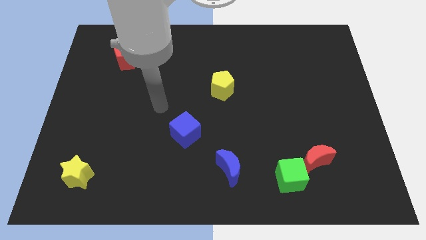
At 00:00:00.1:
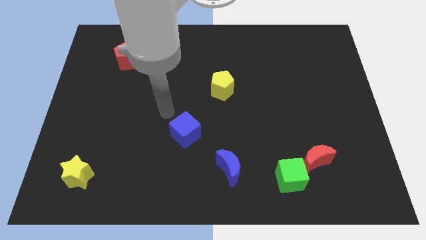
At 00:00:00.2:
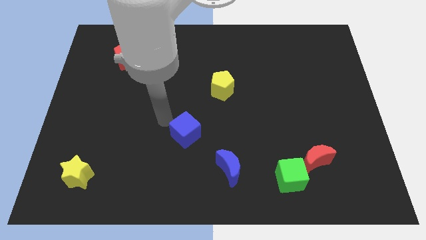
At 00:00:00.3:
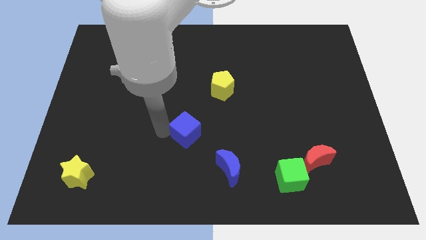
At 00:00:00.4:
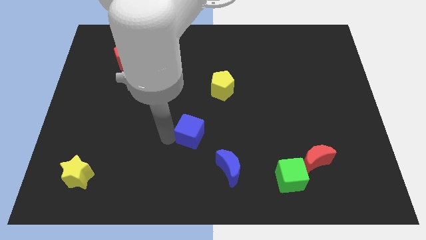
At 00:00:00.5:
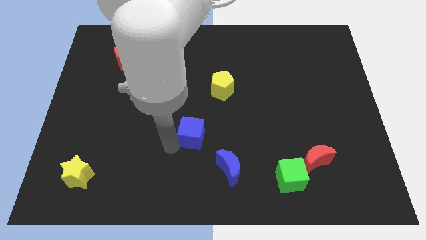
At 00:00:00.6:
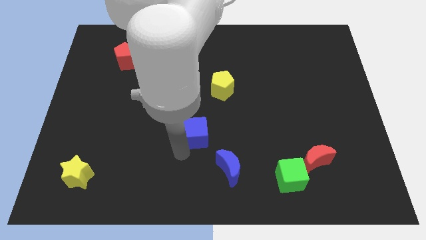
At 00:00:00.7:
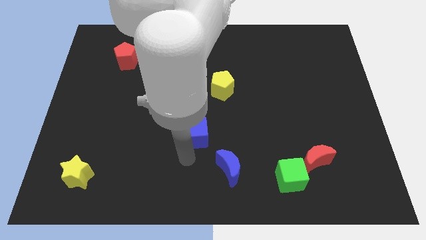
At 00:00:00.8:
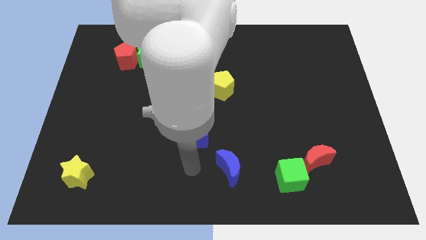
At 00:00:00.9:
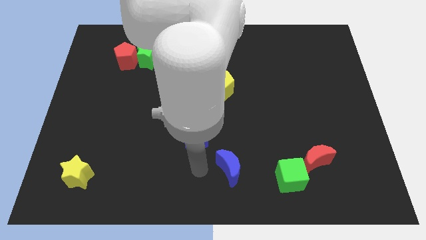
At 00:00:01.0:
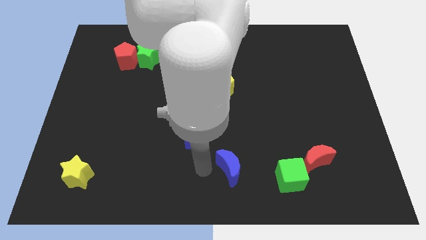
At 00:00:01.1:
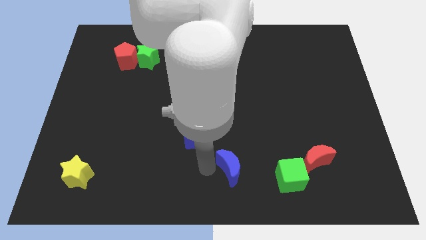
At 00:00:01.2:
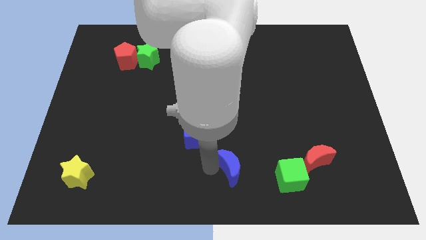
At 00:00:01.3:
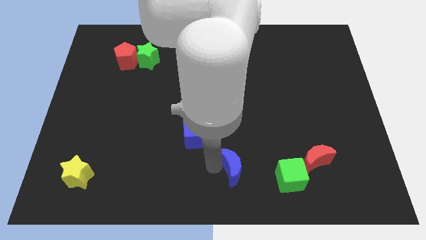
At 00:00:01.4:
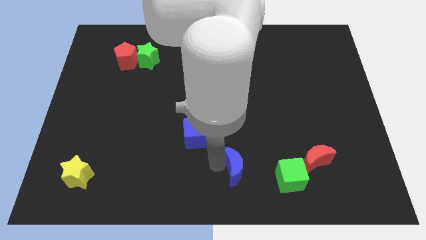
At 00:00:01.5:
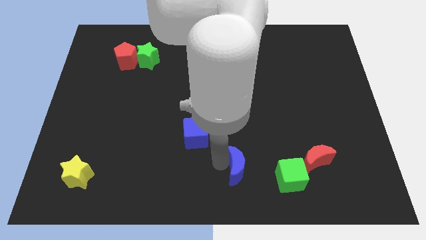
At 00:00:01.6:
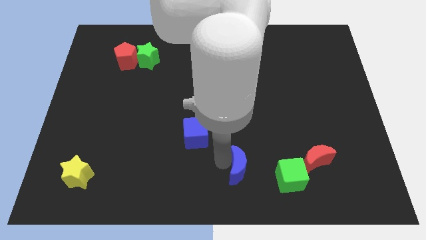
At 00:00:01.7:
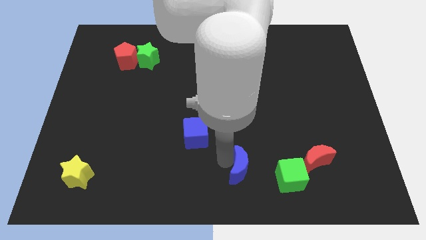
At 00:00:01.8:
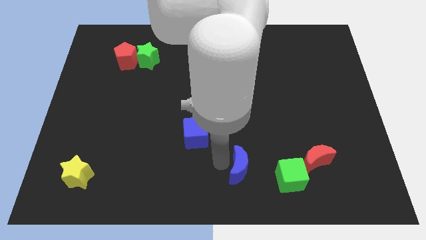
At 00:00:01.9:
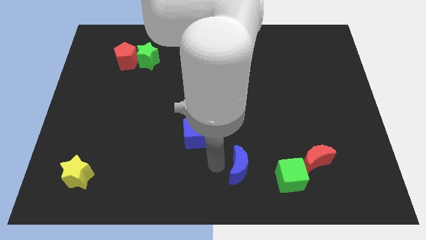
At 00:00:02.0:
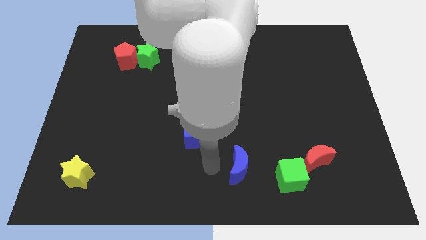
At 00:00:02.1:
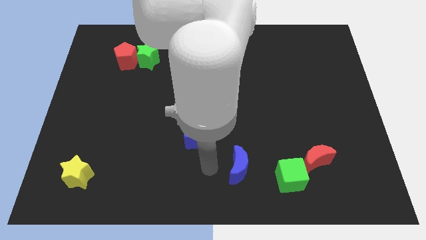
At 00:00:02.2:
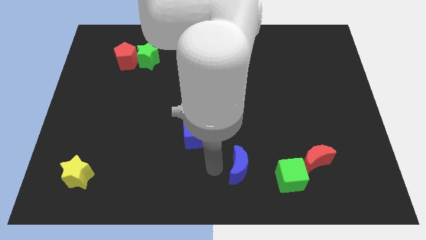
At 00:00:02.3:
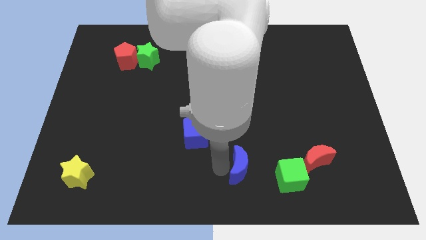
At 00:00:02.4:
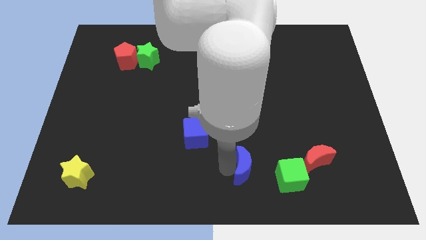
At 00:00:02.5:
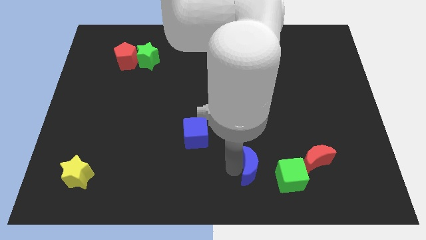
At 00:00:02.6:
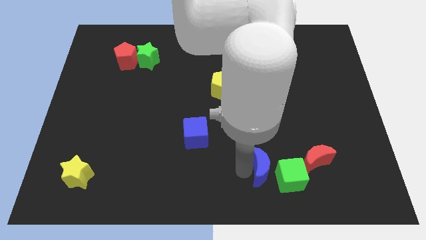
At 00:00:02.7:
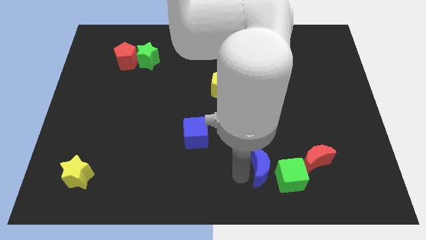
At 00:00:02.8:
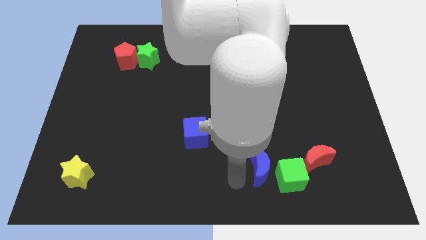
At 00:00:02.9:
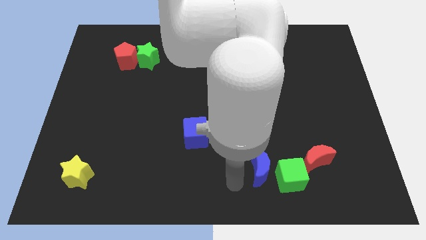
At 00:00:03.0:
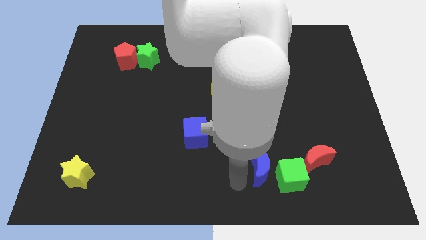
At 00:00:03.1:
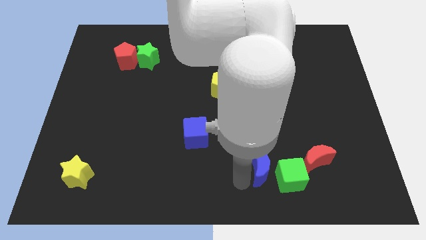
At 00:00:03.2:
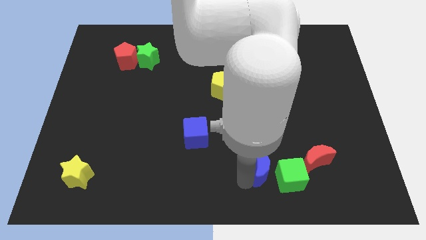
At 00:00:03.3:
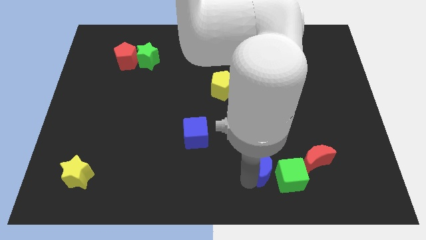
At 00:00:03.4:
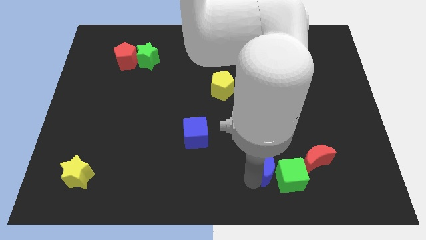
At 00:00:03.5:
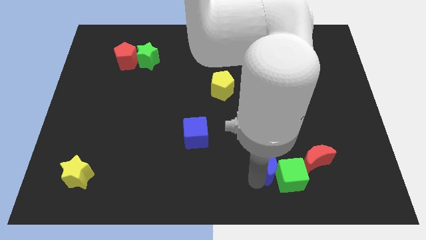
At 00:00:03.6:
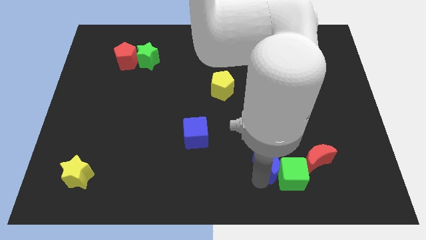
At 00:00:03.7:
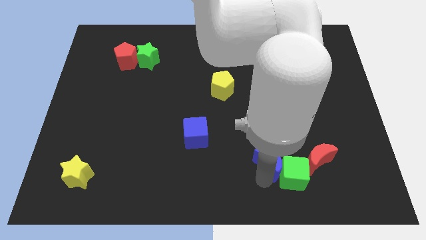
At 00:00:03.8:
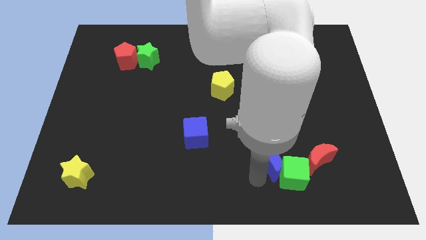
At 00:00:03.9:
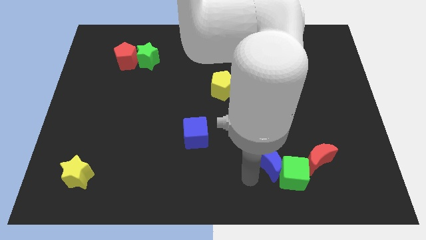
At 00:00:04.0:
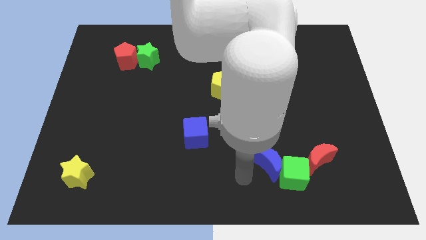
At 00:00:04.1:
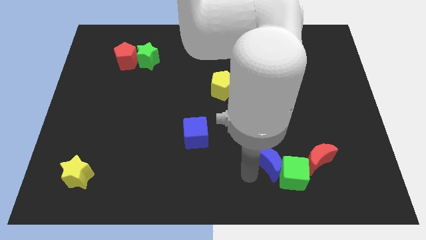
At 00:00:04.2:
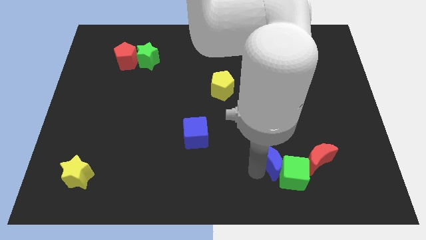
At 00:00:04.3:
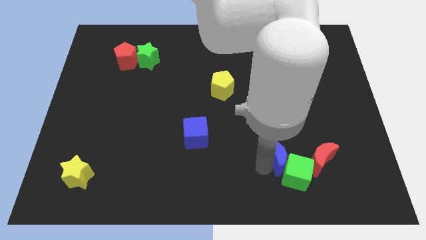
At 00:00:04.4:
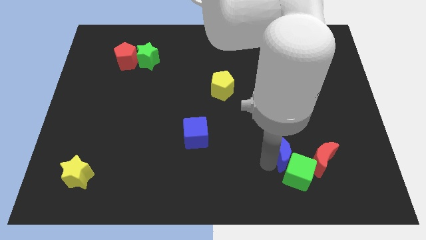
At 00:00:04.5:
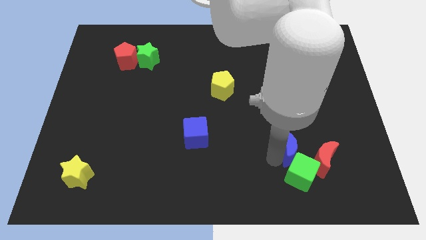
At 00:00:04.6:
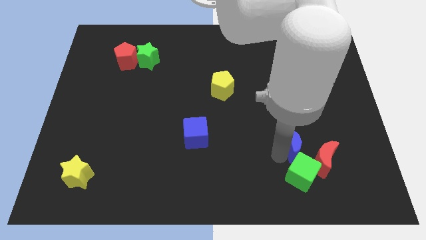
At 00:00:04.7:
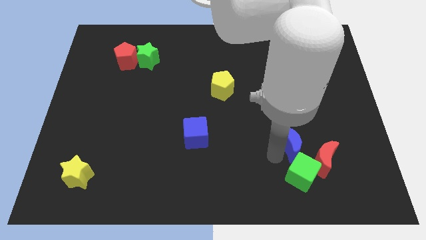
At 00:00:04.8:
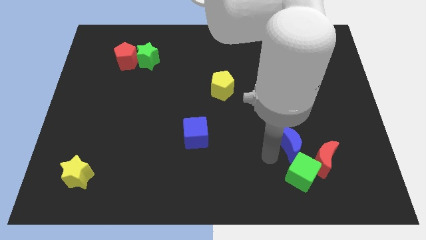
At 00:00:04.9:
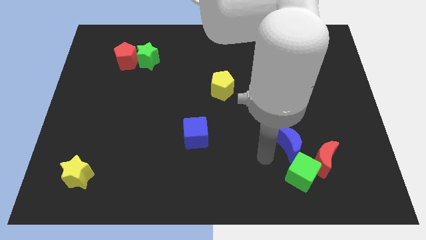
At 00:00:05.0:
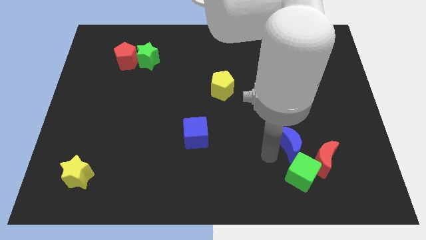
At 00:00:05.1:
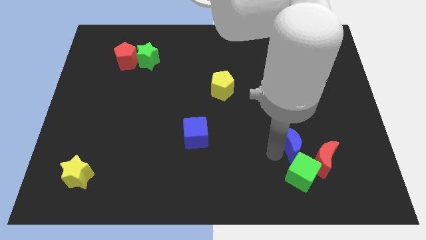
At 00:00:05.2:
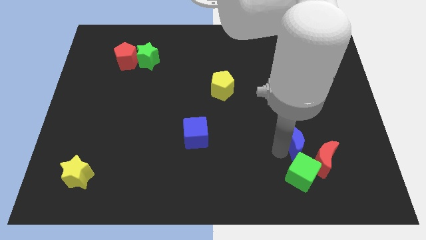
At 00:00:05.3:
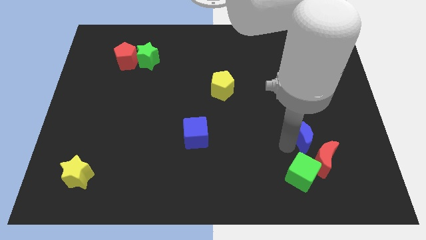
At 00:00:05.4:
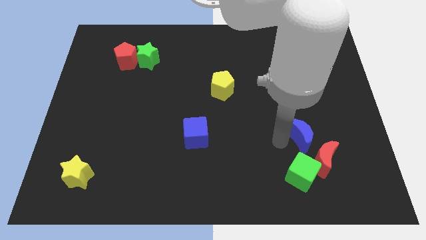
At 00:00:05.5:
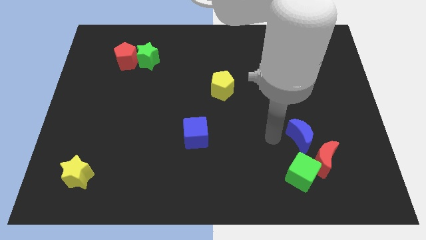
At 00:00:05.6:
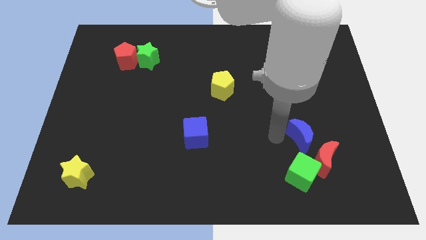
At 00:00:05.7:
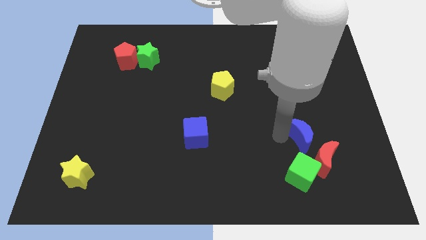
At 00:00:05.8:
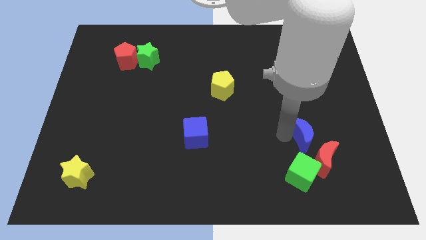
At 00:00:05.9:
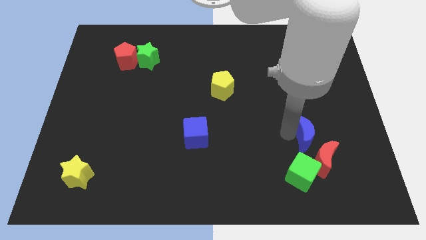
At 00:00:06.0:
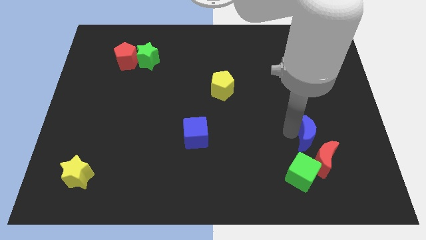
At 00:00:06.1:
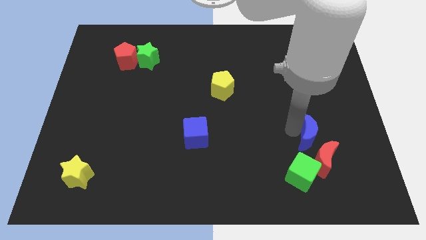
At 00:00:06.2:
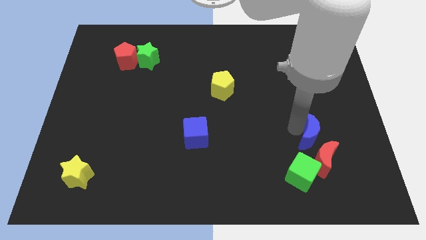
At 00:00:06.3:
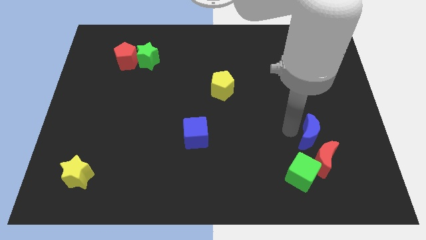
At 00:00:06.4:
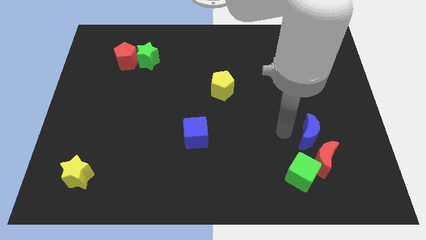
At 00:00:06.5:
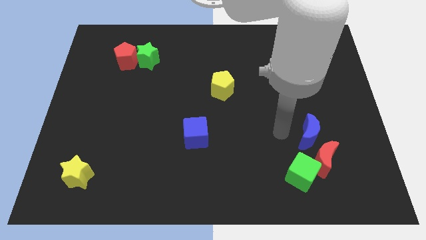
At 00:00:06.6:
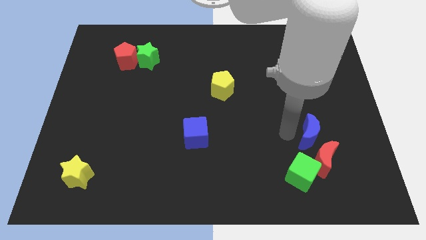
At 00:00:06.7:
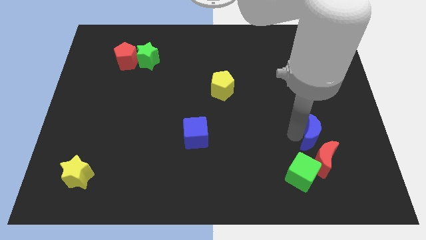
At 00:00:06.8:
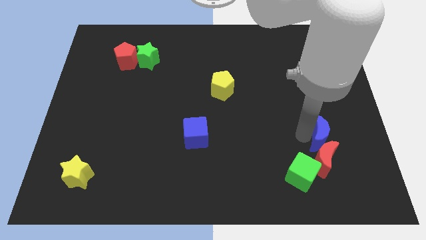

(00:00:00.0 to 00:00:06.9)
move the blue moon to the top right of the red moon

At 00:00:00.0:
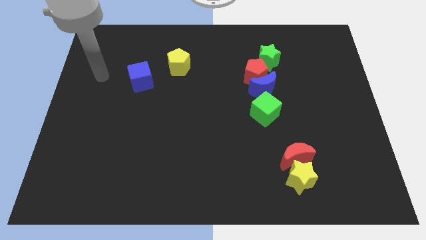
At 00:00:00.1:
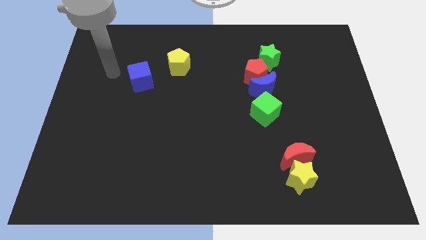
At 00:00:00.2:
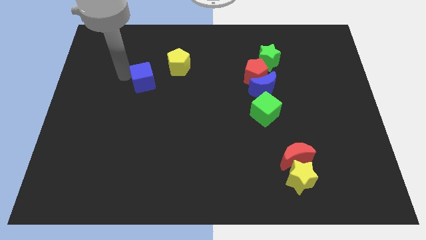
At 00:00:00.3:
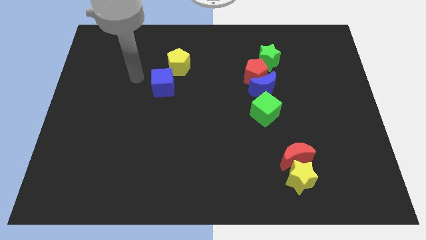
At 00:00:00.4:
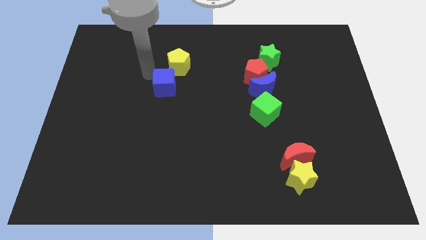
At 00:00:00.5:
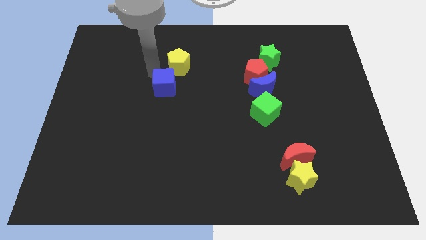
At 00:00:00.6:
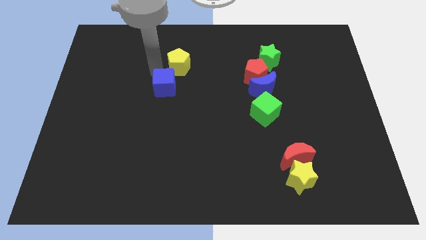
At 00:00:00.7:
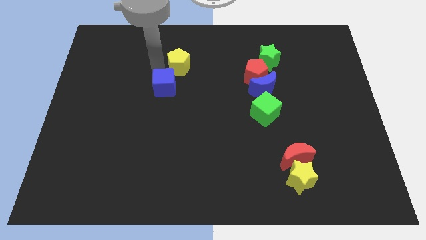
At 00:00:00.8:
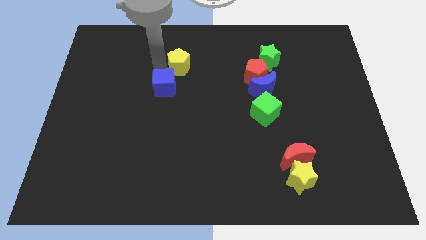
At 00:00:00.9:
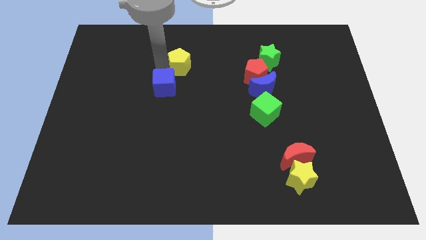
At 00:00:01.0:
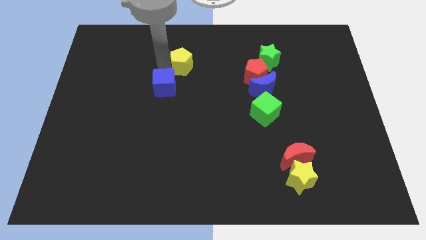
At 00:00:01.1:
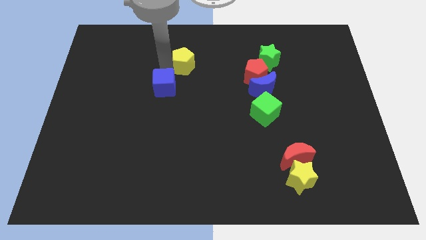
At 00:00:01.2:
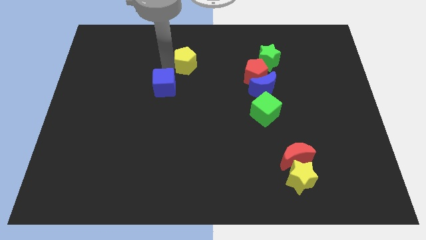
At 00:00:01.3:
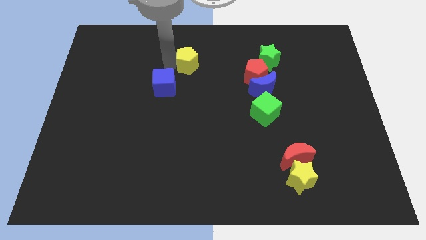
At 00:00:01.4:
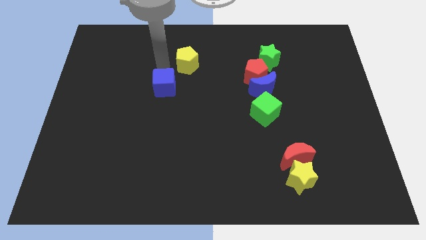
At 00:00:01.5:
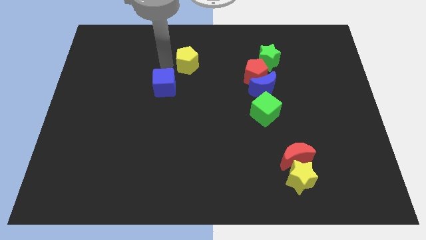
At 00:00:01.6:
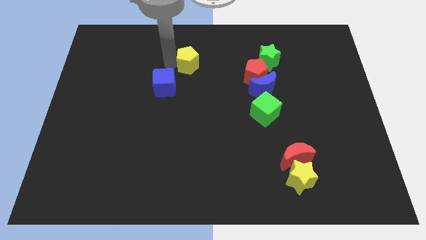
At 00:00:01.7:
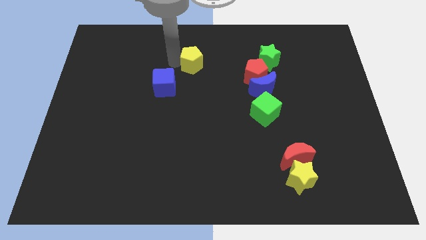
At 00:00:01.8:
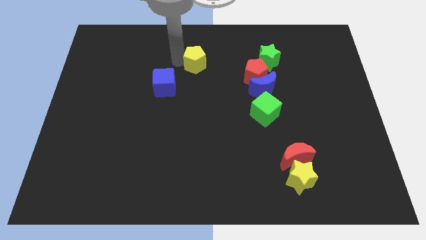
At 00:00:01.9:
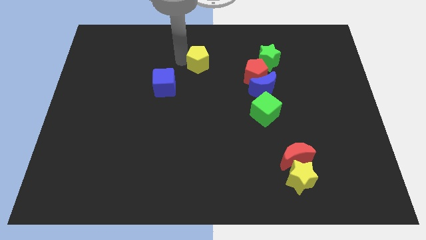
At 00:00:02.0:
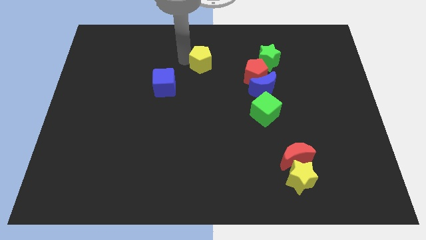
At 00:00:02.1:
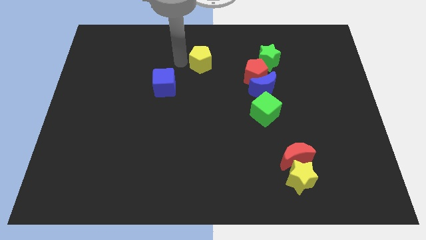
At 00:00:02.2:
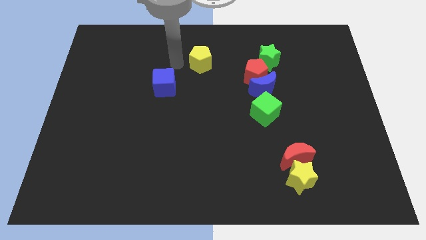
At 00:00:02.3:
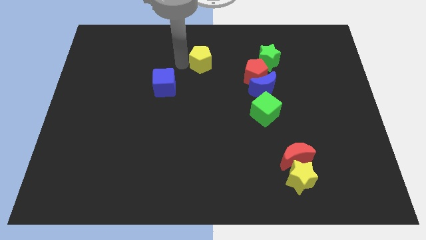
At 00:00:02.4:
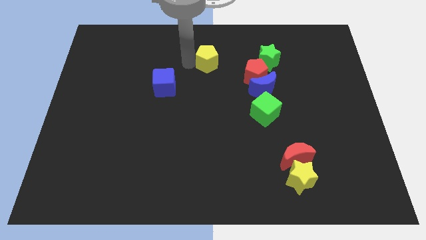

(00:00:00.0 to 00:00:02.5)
put the yellow pentagon left of the green star
